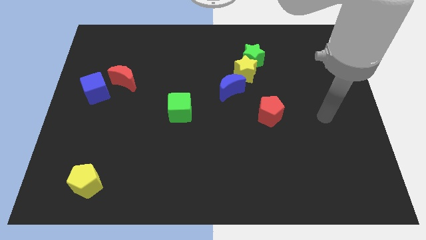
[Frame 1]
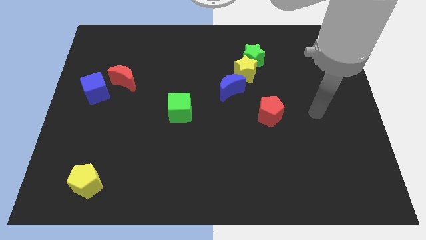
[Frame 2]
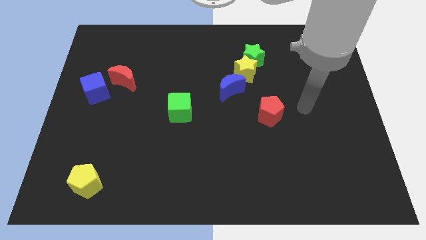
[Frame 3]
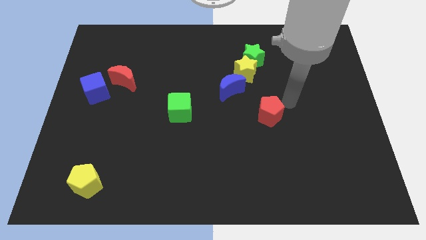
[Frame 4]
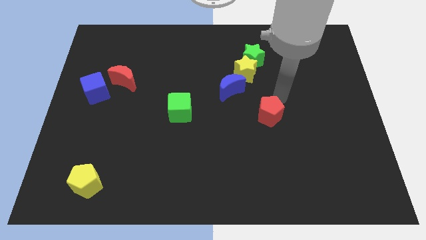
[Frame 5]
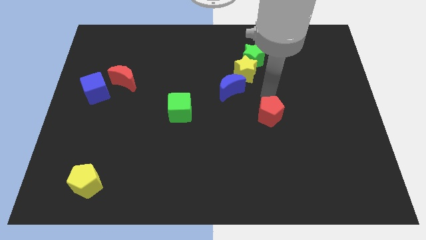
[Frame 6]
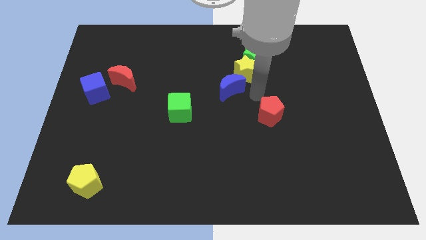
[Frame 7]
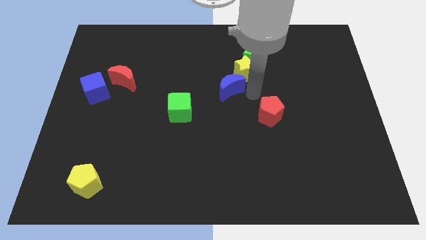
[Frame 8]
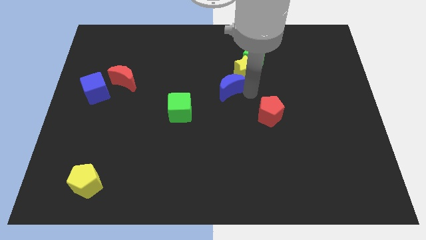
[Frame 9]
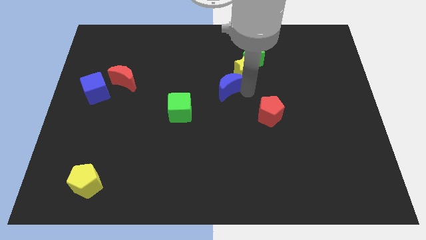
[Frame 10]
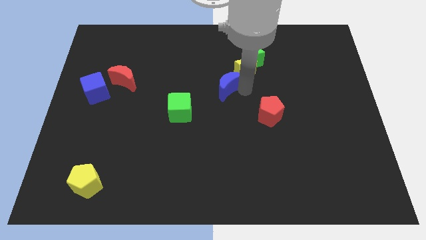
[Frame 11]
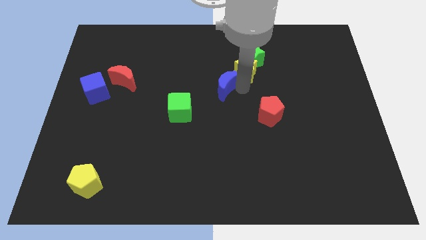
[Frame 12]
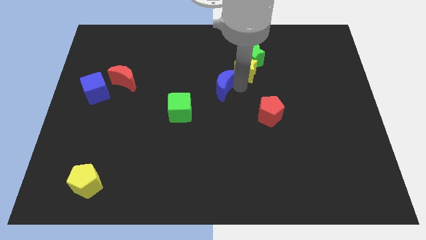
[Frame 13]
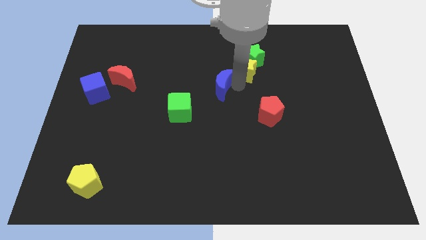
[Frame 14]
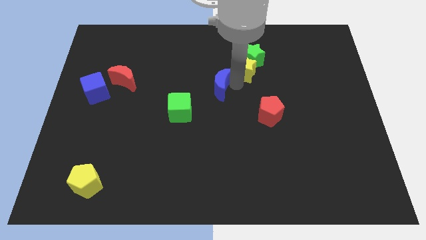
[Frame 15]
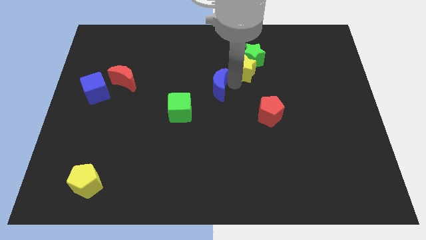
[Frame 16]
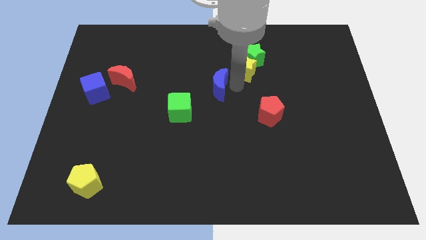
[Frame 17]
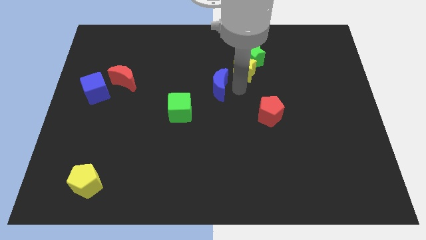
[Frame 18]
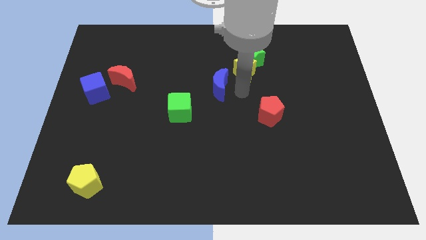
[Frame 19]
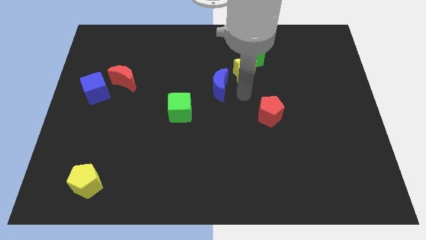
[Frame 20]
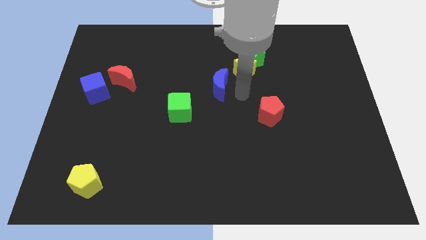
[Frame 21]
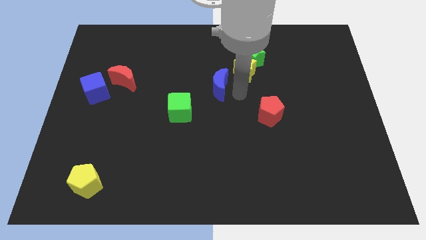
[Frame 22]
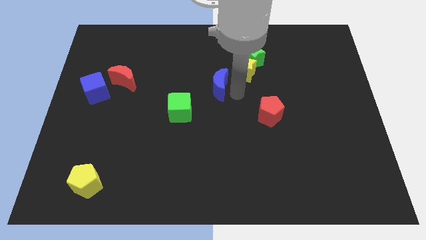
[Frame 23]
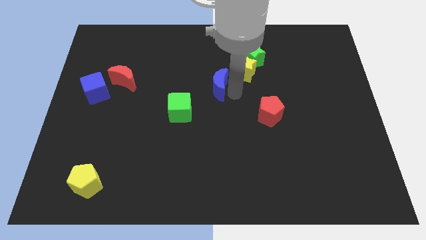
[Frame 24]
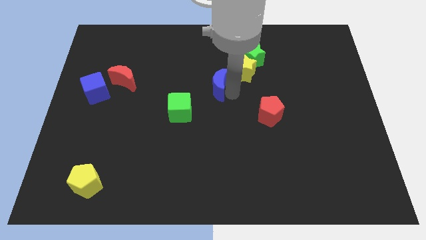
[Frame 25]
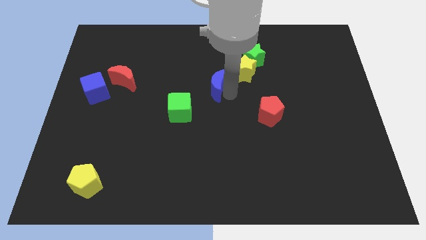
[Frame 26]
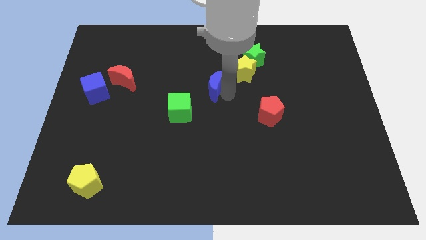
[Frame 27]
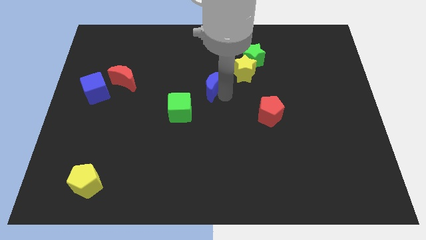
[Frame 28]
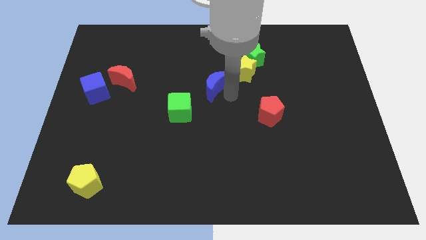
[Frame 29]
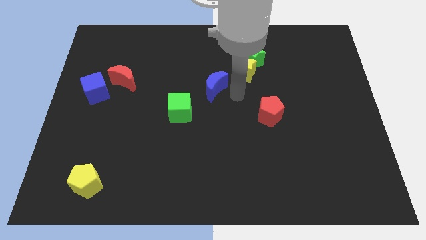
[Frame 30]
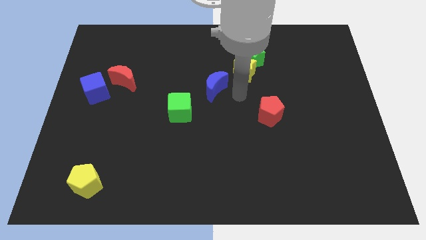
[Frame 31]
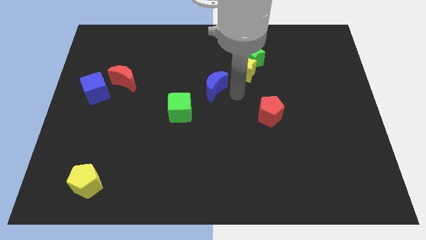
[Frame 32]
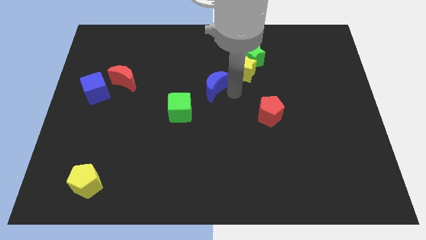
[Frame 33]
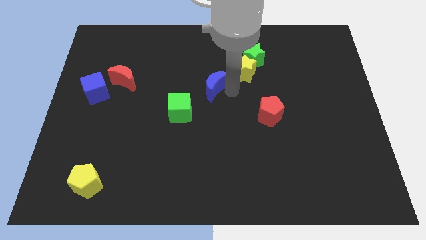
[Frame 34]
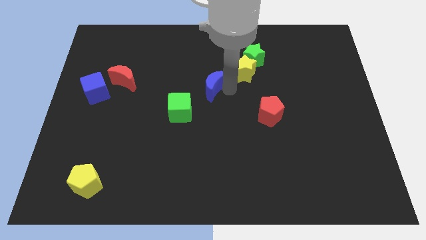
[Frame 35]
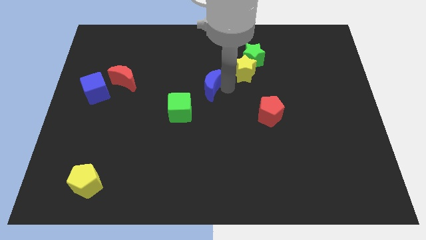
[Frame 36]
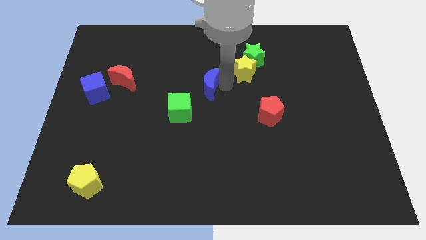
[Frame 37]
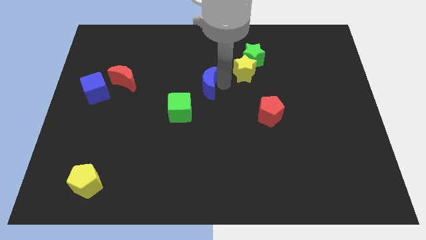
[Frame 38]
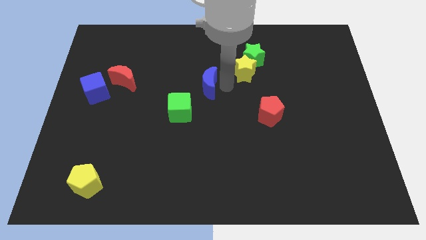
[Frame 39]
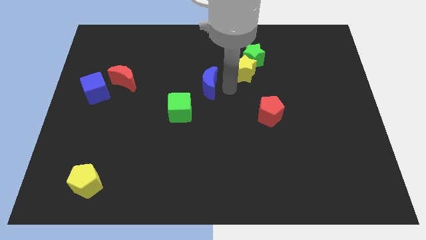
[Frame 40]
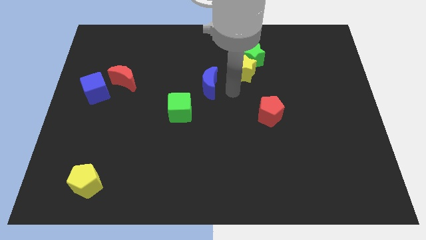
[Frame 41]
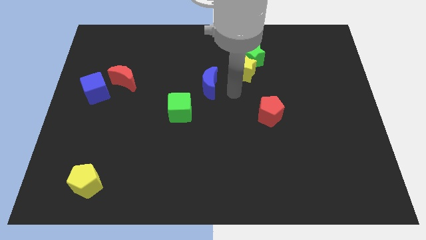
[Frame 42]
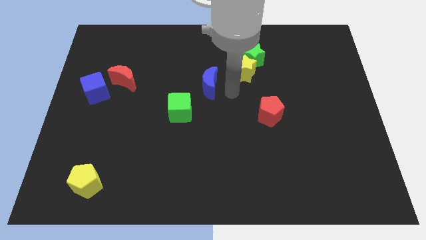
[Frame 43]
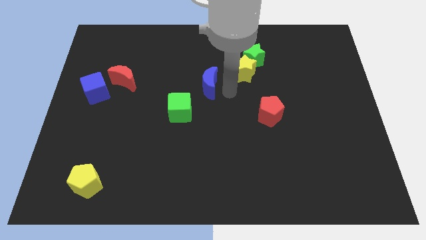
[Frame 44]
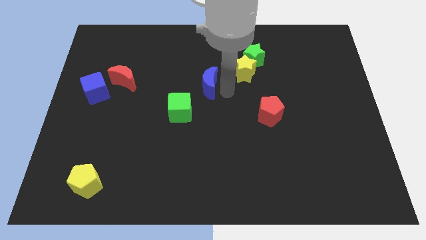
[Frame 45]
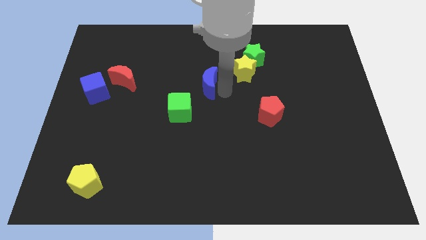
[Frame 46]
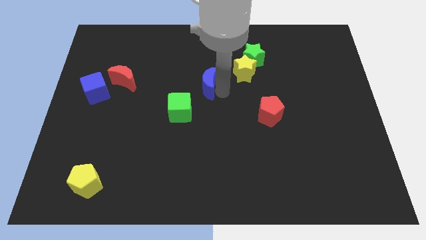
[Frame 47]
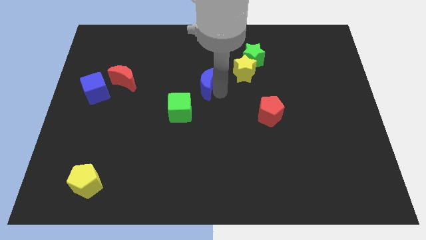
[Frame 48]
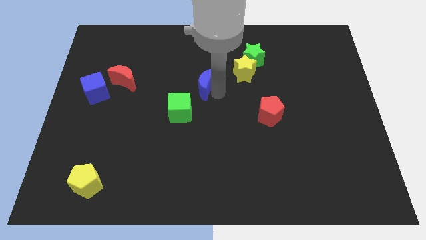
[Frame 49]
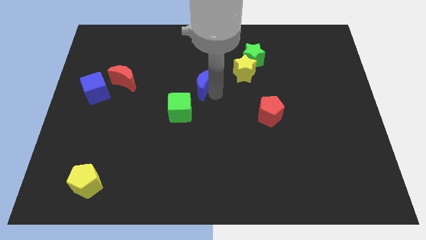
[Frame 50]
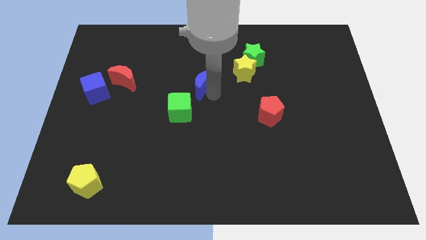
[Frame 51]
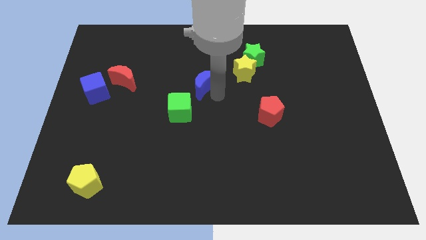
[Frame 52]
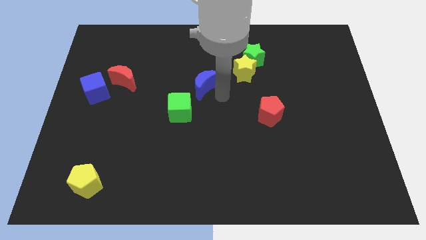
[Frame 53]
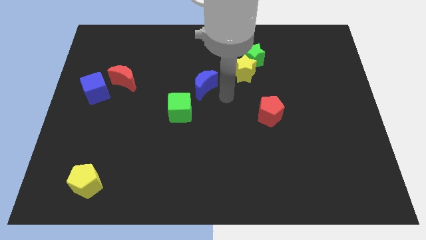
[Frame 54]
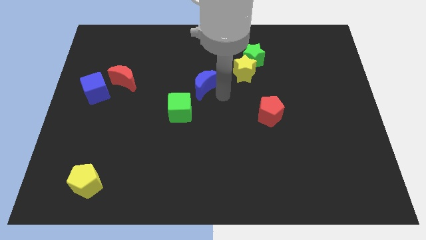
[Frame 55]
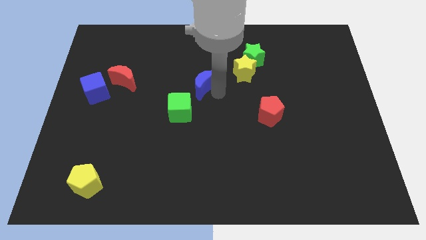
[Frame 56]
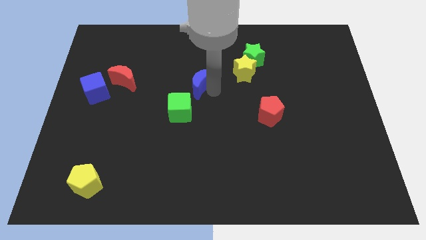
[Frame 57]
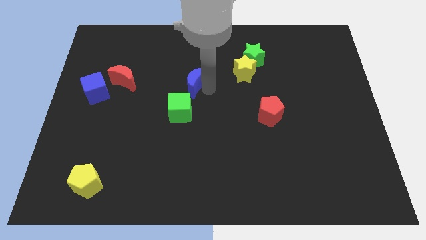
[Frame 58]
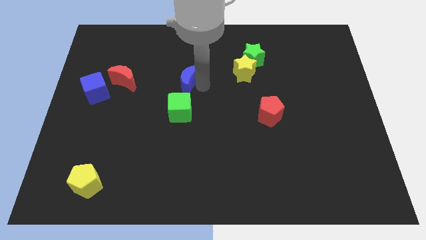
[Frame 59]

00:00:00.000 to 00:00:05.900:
push the blue moon to the right side of the red moon
